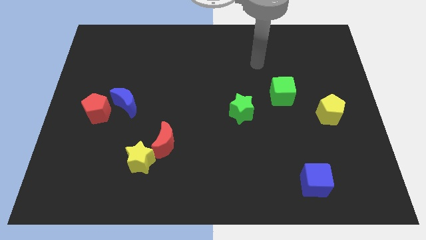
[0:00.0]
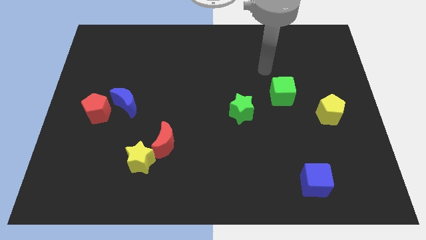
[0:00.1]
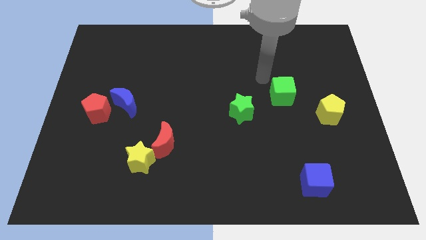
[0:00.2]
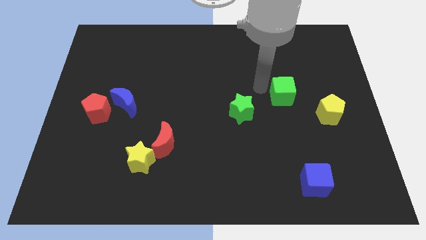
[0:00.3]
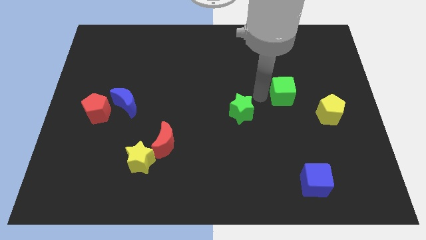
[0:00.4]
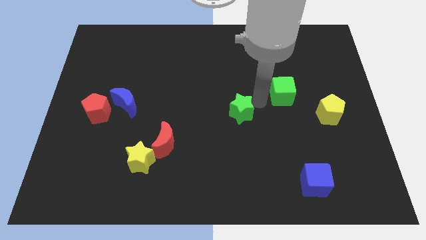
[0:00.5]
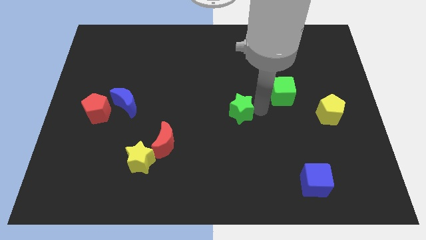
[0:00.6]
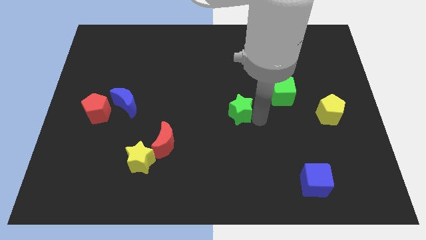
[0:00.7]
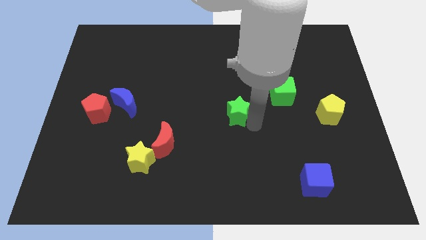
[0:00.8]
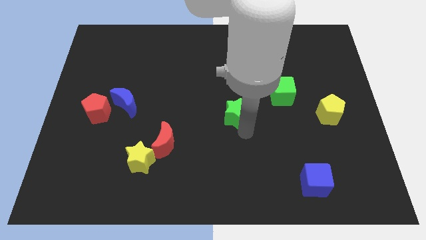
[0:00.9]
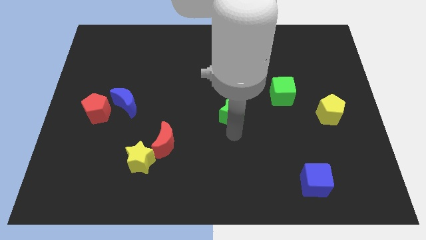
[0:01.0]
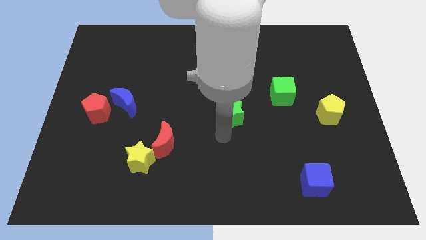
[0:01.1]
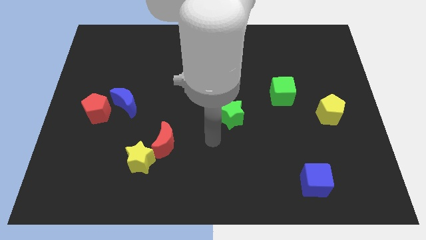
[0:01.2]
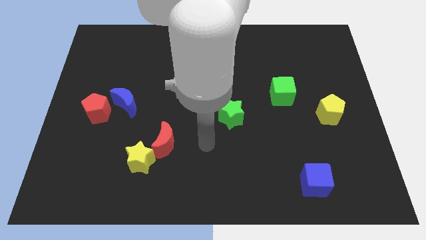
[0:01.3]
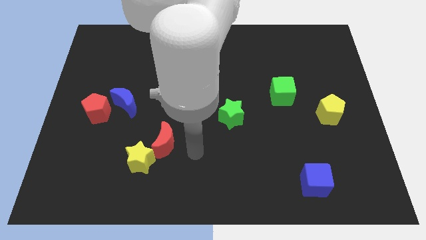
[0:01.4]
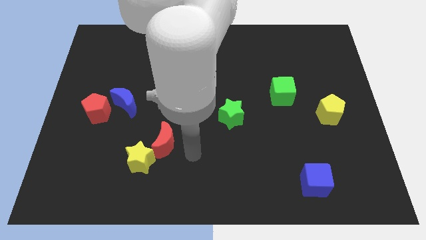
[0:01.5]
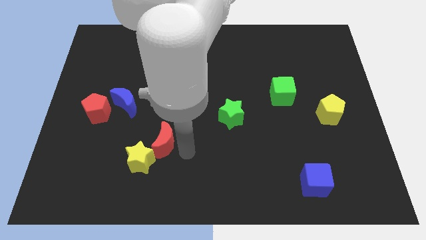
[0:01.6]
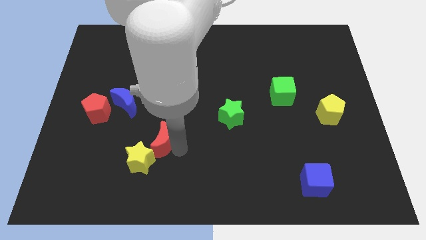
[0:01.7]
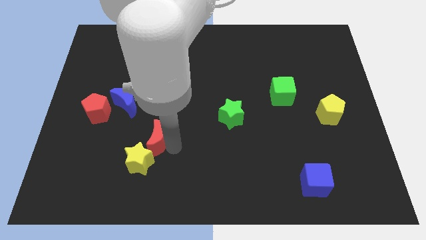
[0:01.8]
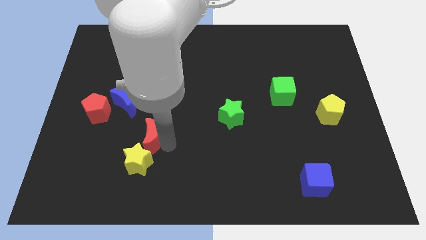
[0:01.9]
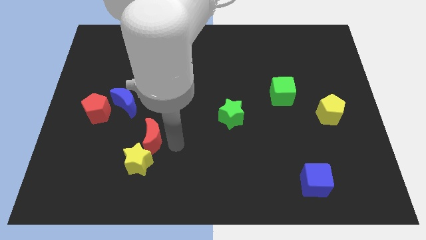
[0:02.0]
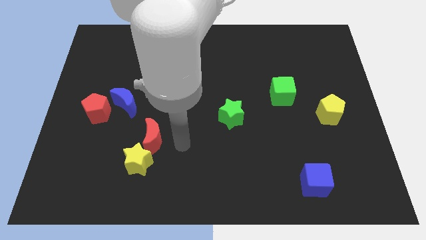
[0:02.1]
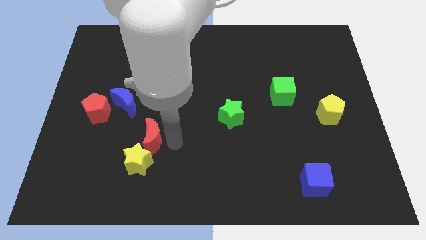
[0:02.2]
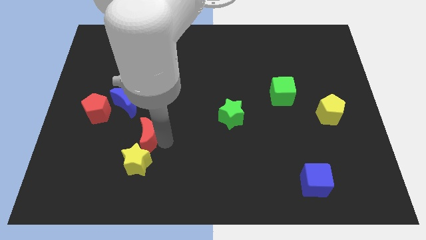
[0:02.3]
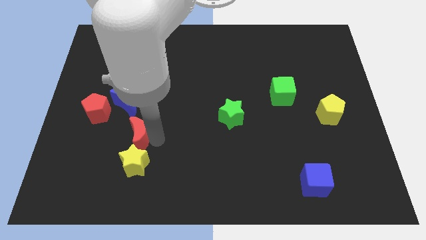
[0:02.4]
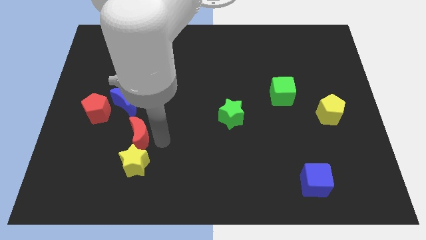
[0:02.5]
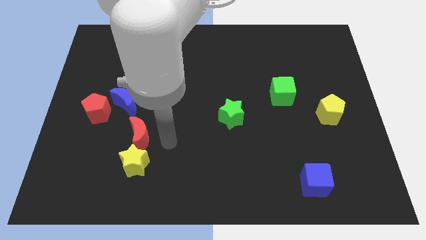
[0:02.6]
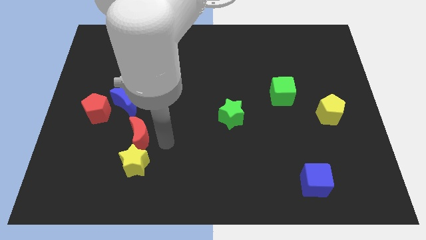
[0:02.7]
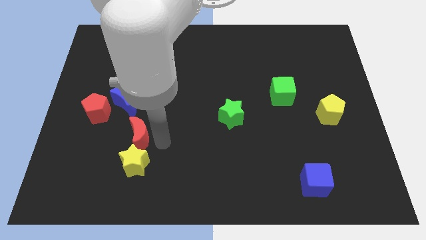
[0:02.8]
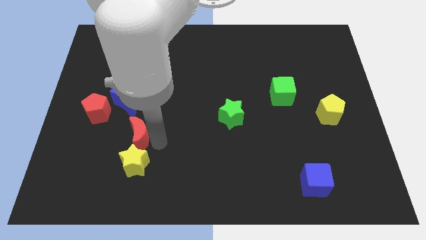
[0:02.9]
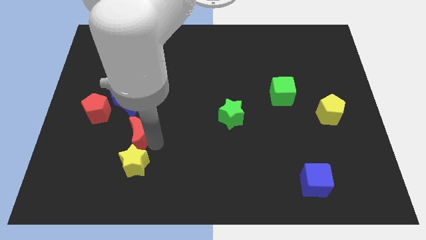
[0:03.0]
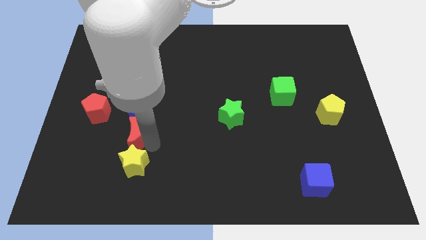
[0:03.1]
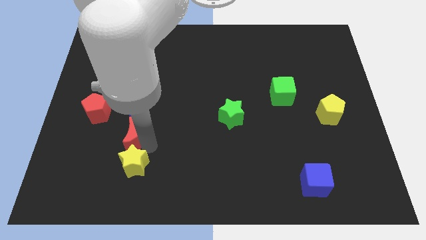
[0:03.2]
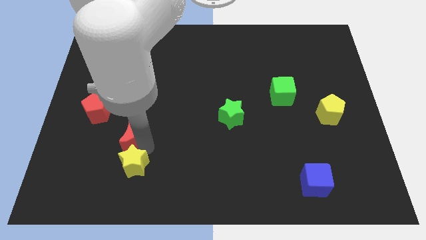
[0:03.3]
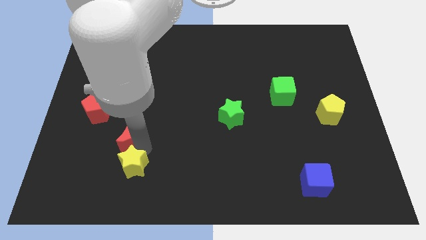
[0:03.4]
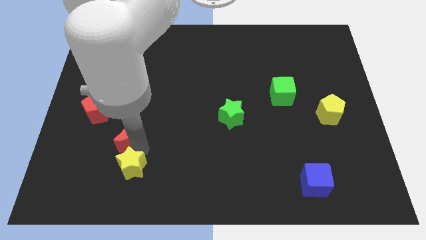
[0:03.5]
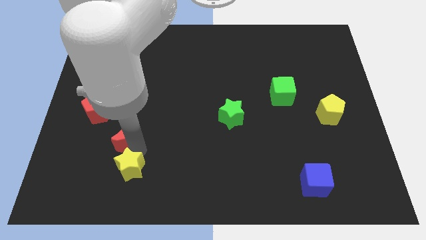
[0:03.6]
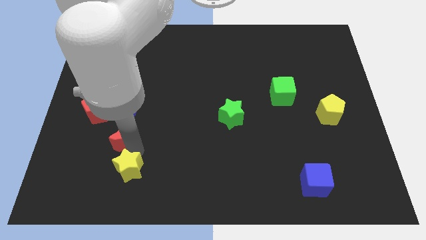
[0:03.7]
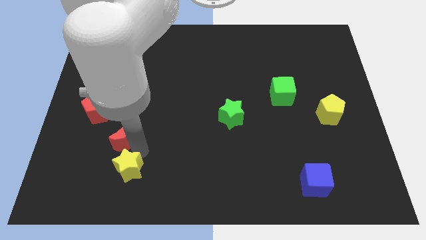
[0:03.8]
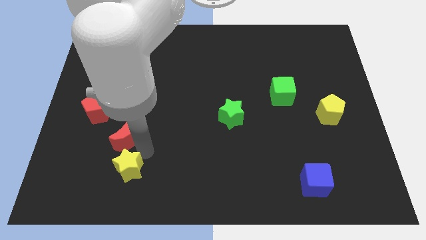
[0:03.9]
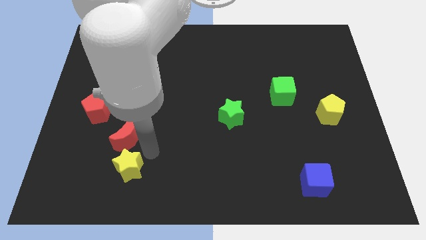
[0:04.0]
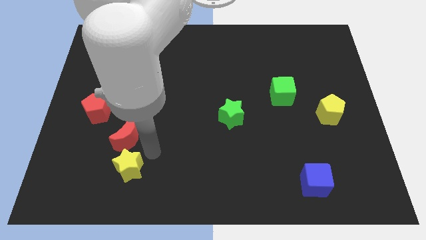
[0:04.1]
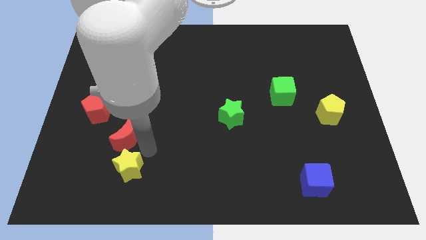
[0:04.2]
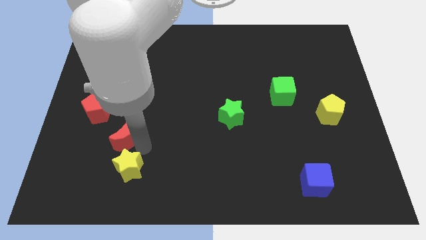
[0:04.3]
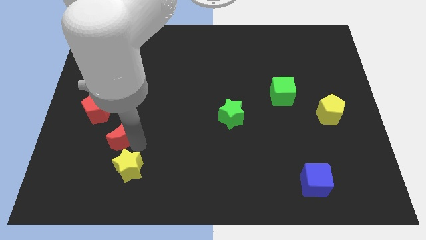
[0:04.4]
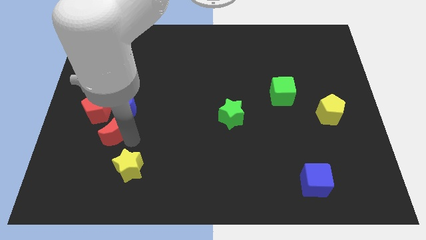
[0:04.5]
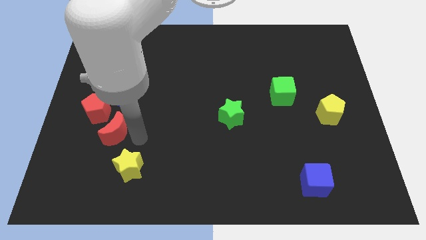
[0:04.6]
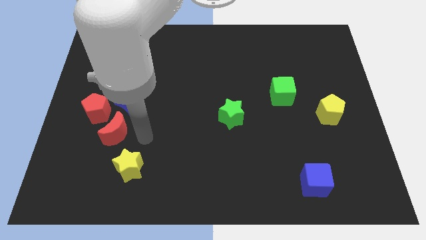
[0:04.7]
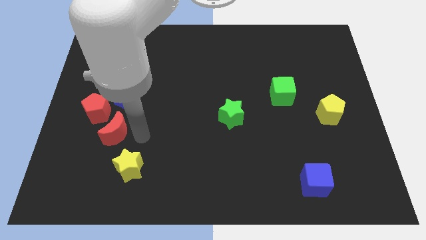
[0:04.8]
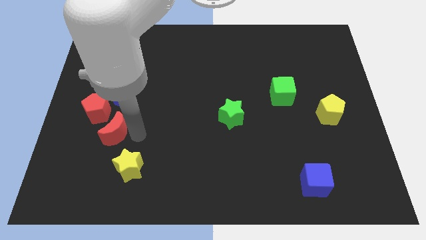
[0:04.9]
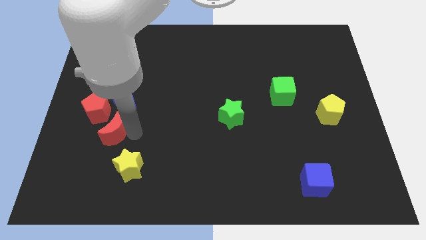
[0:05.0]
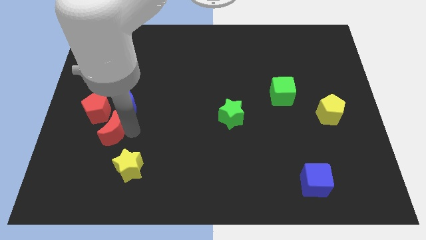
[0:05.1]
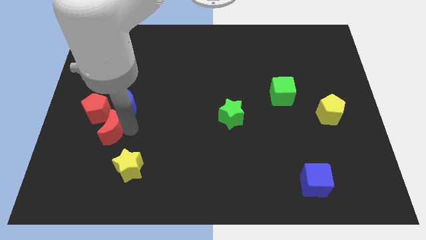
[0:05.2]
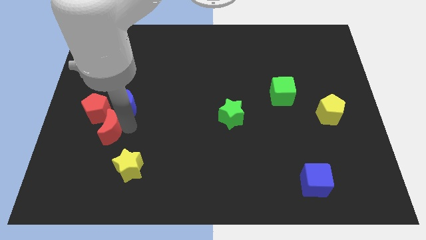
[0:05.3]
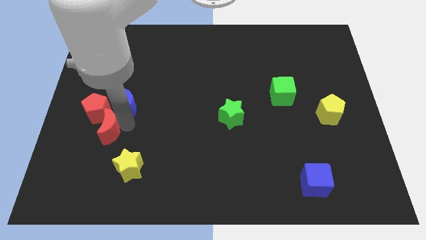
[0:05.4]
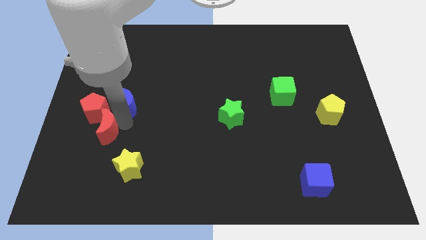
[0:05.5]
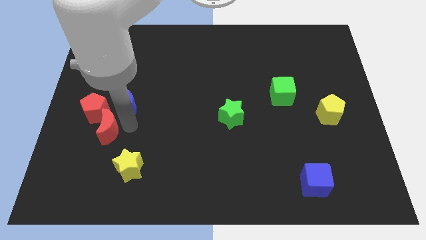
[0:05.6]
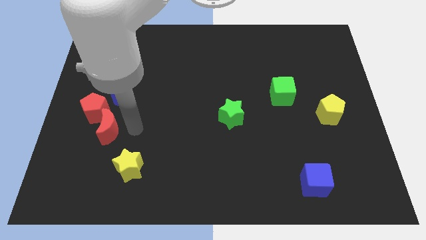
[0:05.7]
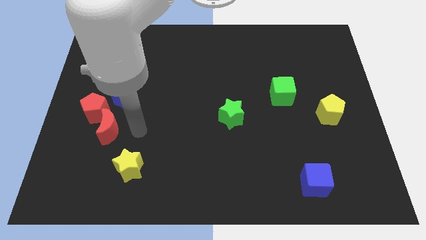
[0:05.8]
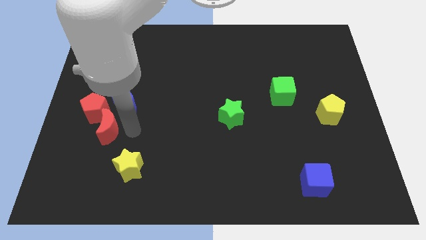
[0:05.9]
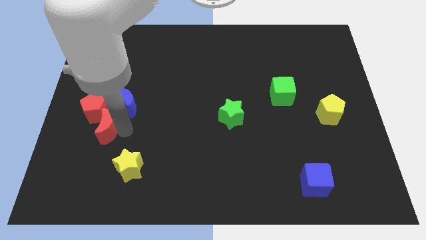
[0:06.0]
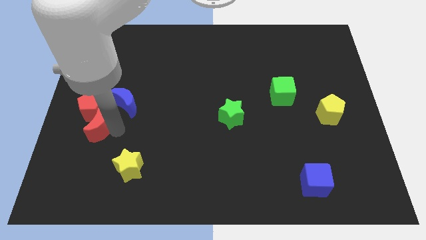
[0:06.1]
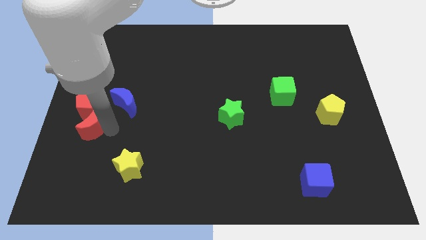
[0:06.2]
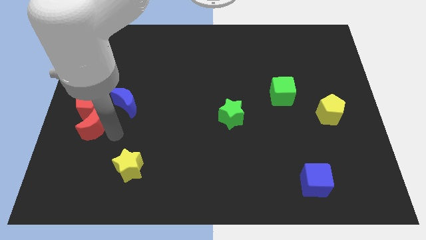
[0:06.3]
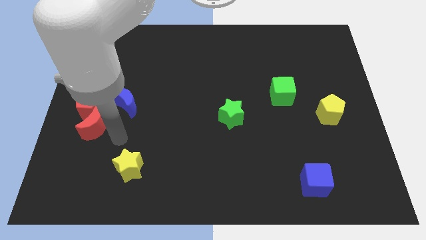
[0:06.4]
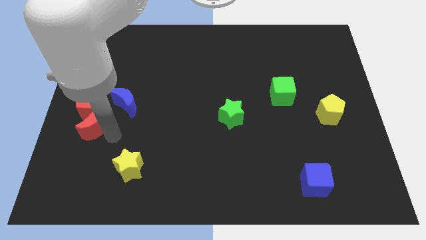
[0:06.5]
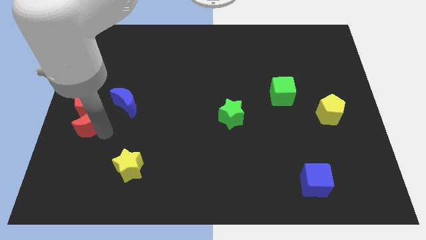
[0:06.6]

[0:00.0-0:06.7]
move the red moon to the left side of the board
